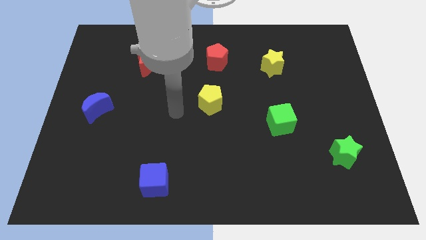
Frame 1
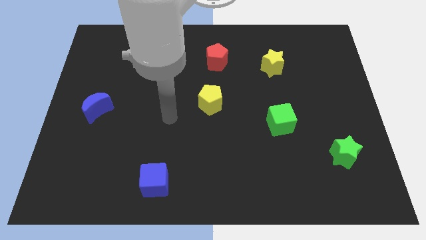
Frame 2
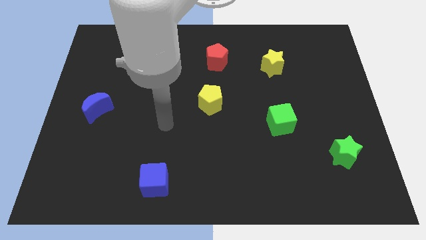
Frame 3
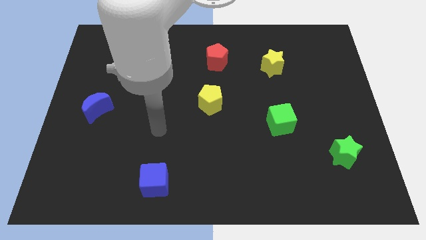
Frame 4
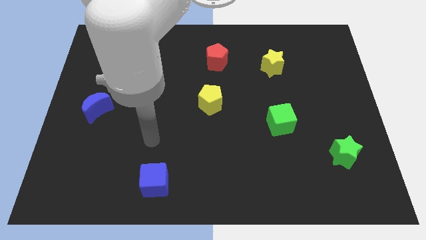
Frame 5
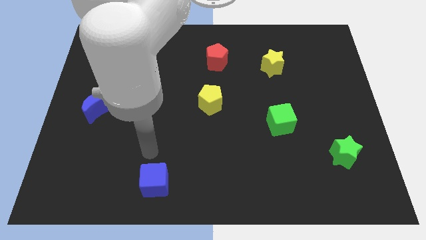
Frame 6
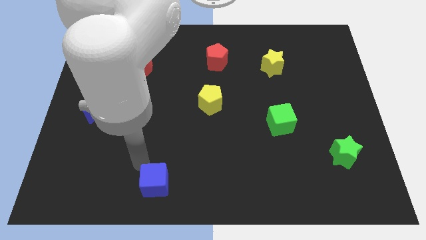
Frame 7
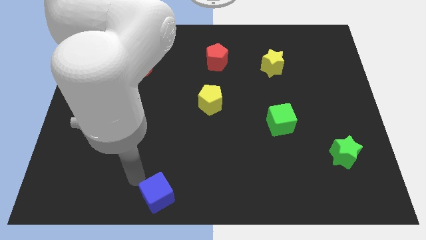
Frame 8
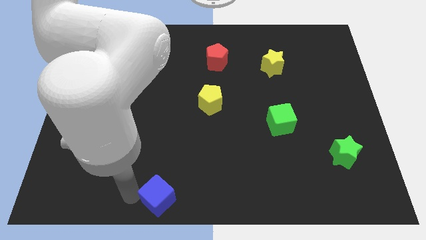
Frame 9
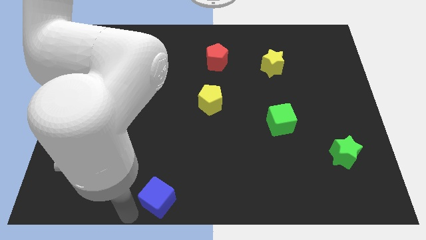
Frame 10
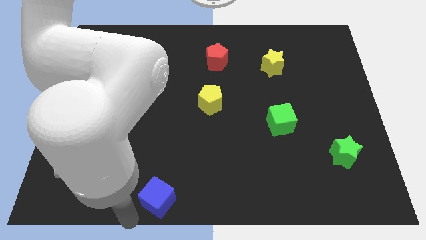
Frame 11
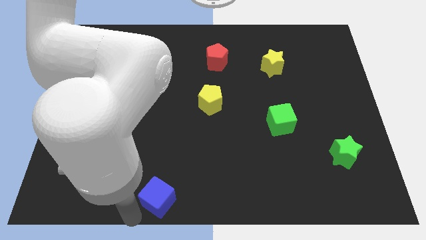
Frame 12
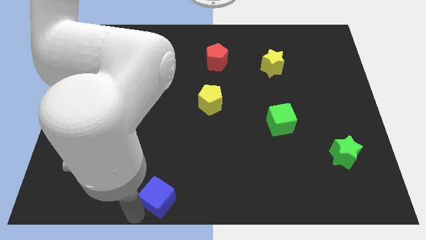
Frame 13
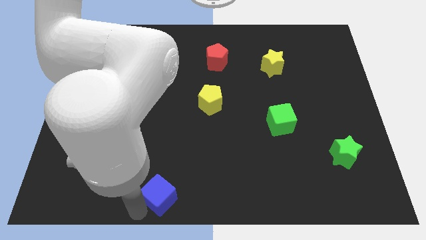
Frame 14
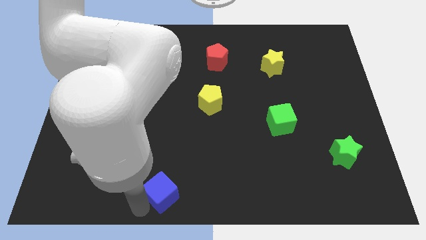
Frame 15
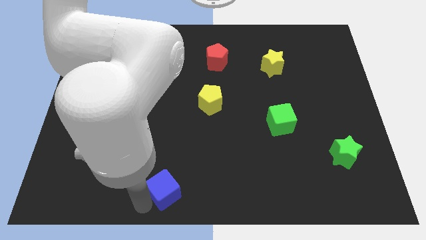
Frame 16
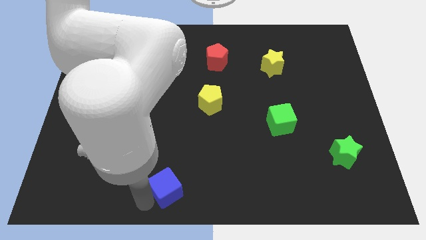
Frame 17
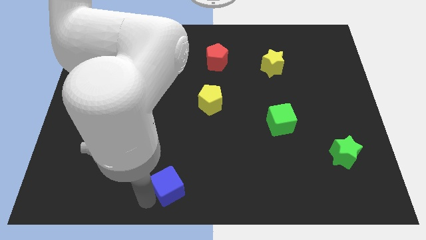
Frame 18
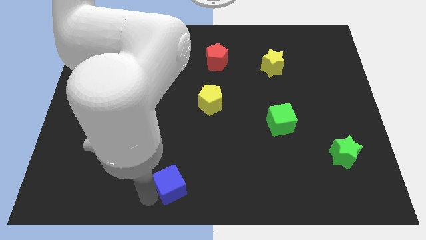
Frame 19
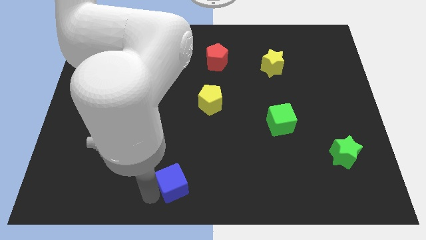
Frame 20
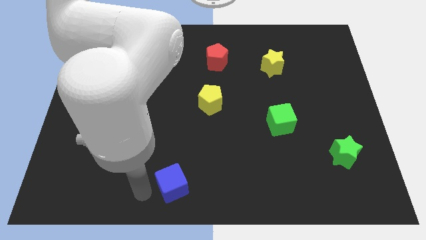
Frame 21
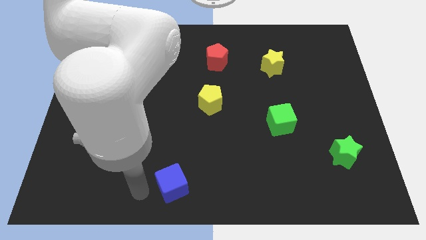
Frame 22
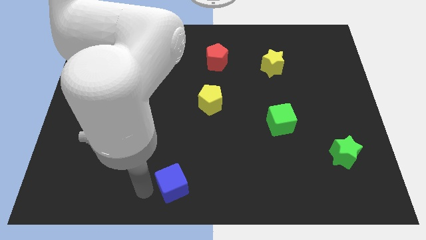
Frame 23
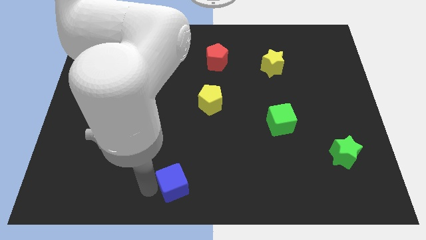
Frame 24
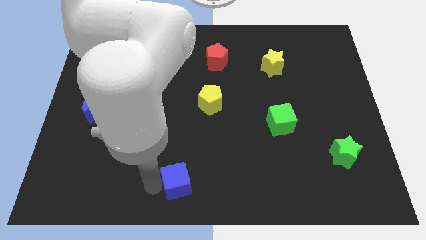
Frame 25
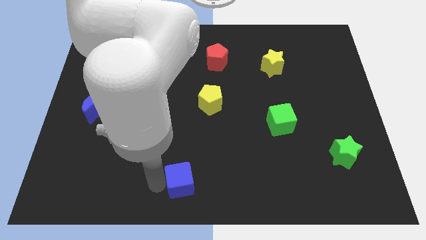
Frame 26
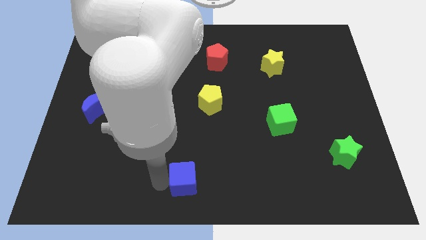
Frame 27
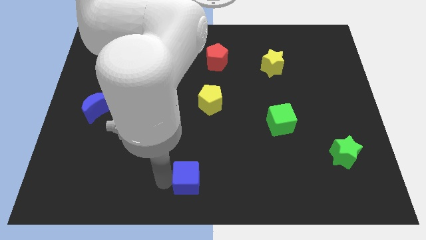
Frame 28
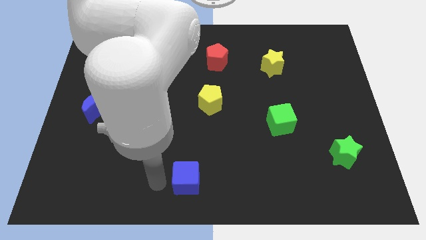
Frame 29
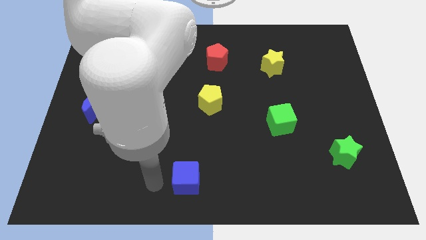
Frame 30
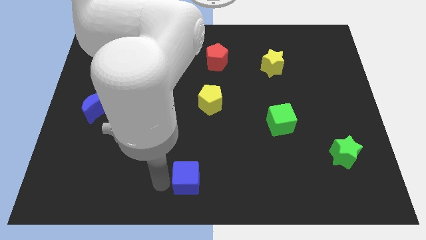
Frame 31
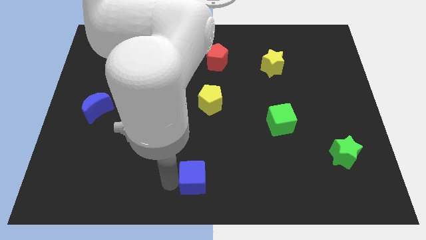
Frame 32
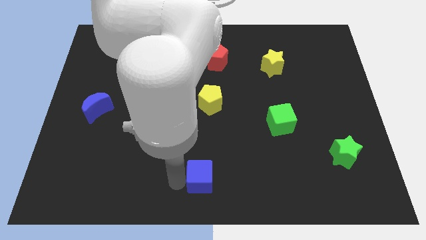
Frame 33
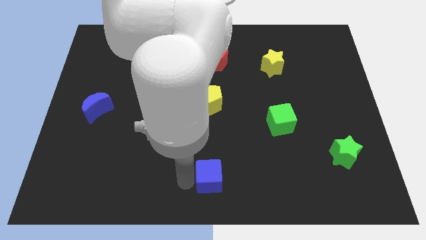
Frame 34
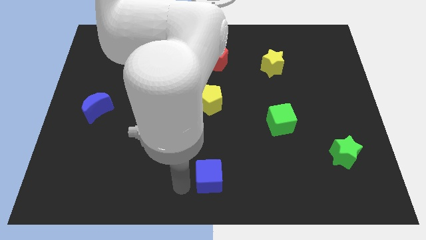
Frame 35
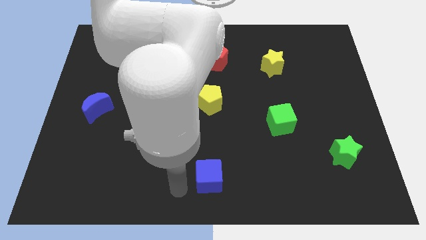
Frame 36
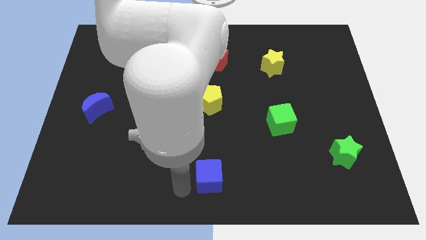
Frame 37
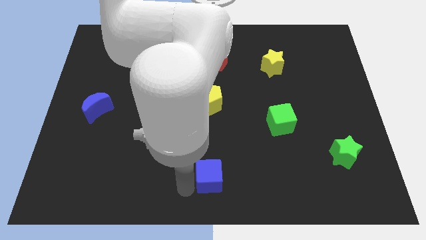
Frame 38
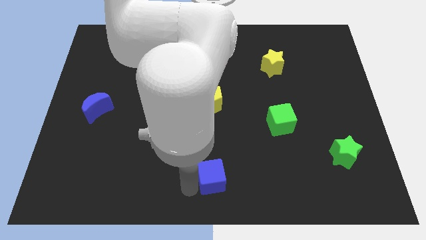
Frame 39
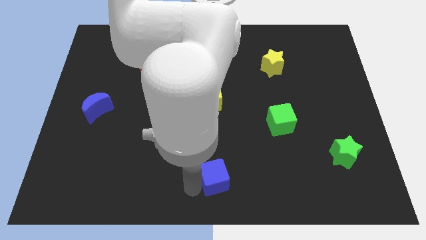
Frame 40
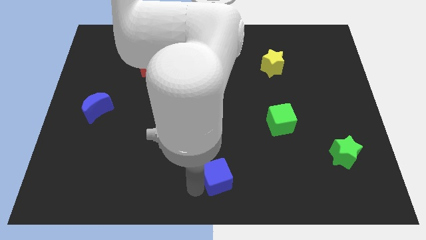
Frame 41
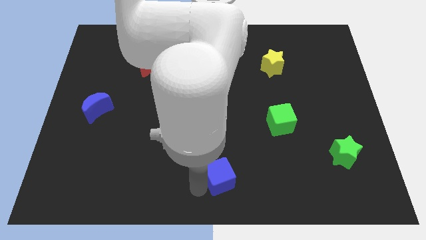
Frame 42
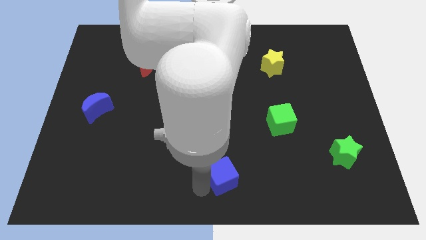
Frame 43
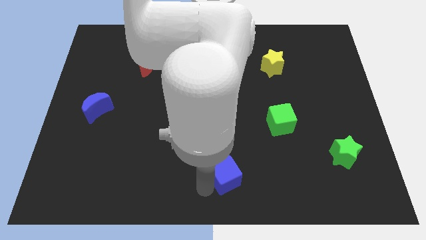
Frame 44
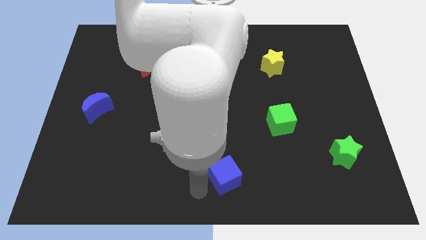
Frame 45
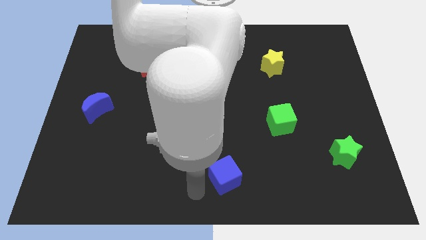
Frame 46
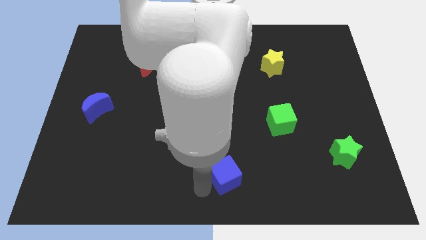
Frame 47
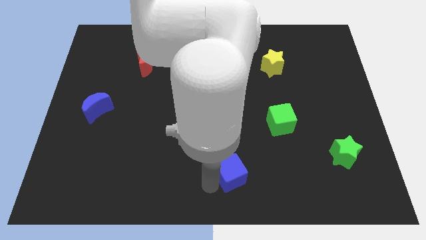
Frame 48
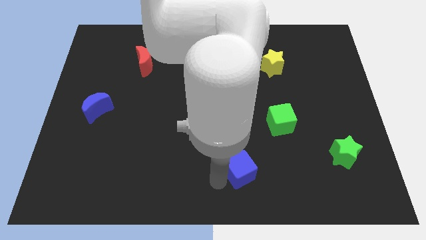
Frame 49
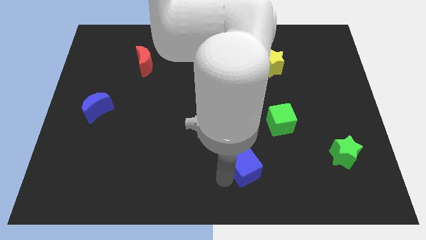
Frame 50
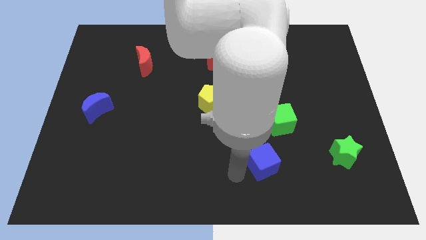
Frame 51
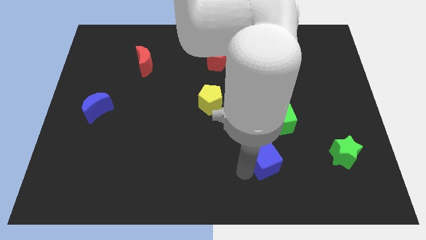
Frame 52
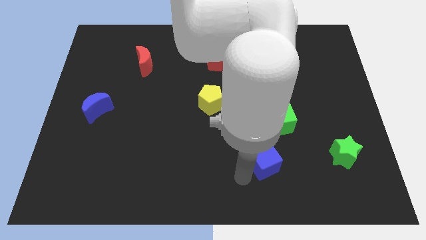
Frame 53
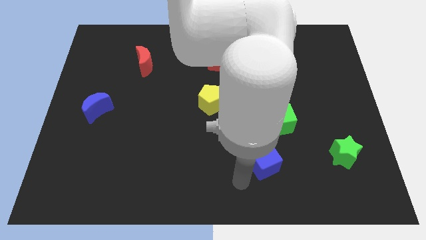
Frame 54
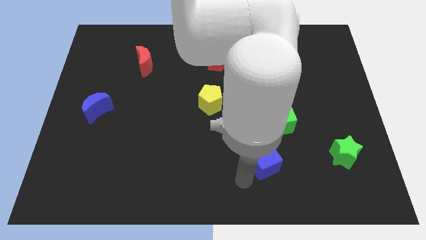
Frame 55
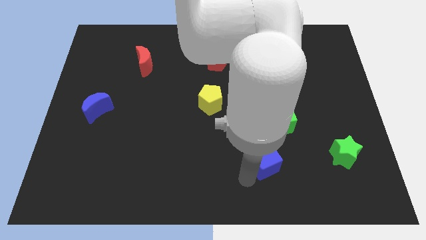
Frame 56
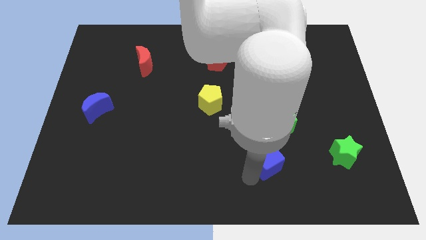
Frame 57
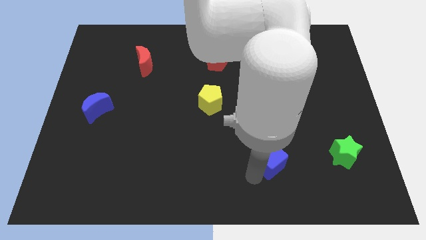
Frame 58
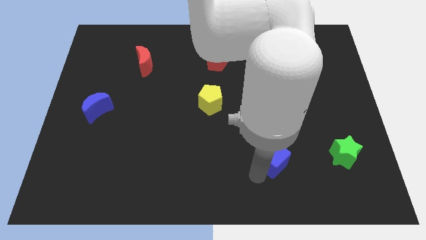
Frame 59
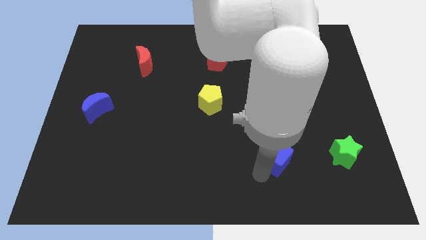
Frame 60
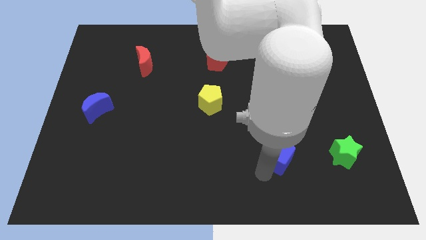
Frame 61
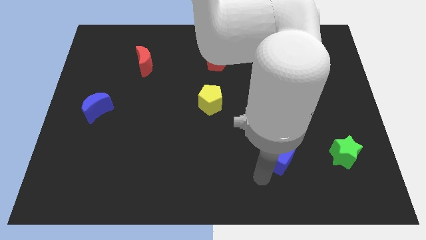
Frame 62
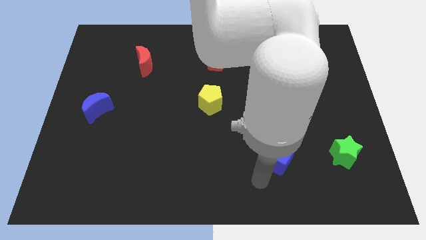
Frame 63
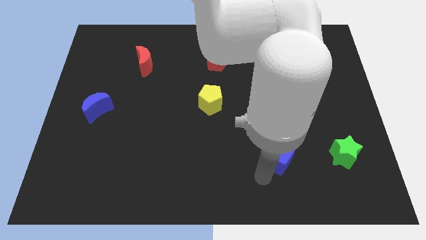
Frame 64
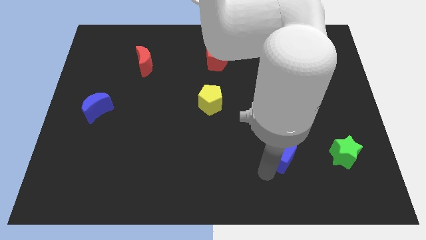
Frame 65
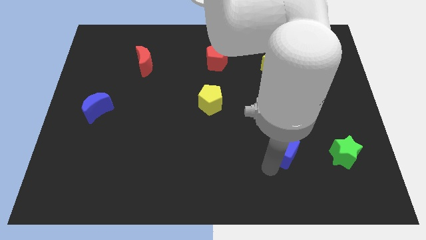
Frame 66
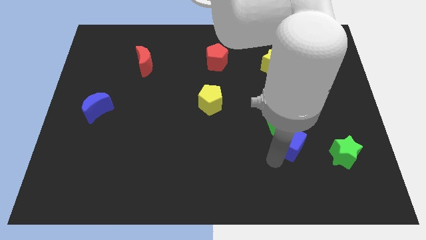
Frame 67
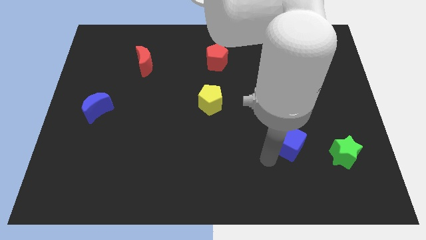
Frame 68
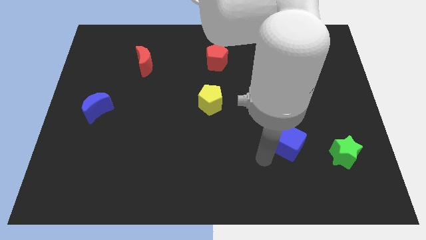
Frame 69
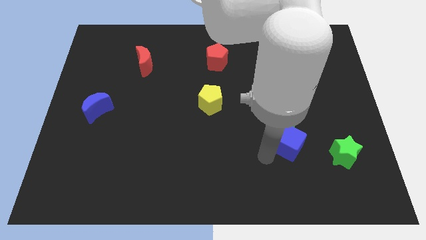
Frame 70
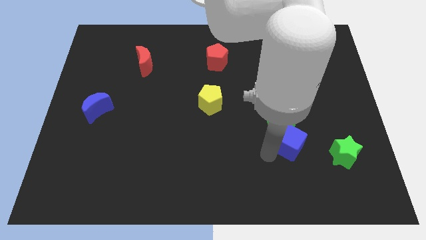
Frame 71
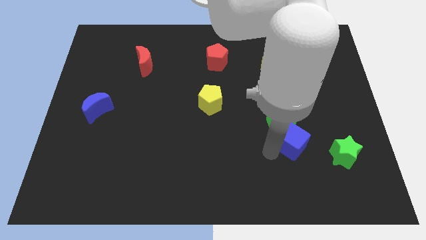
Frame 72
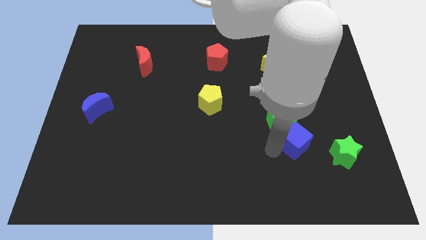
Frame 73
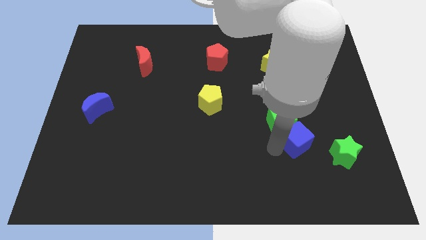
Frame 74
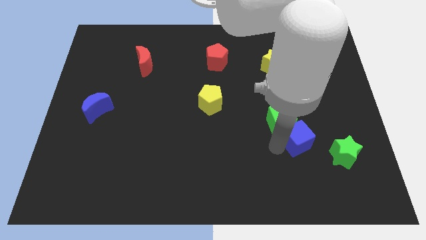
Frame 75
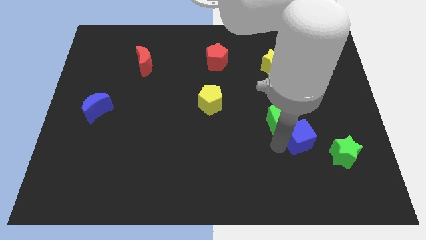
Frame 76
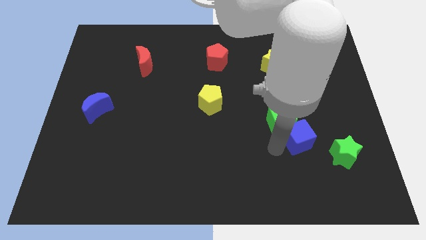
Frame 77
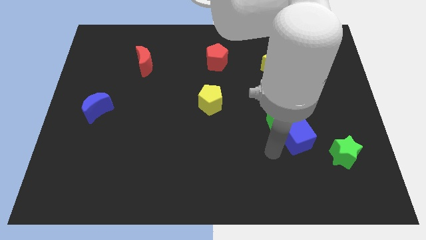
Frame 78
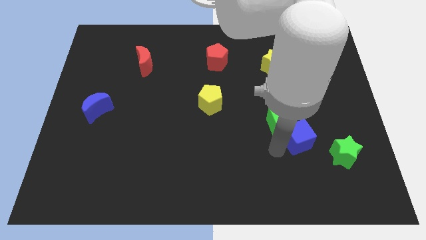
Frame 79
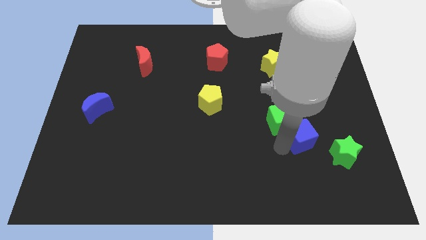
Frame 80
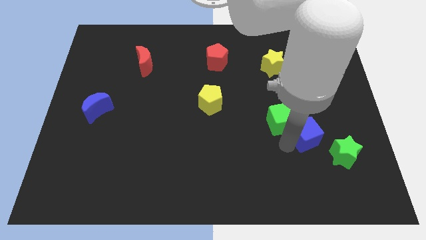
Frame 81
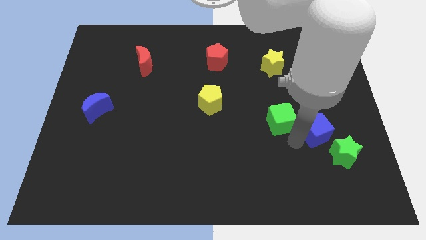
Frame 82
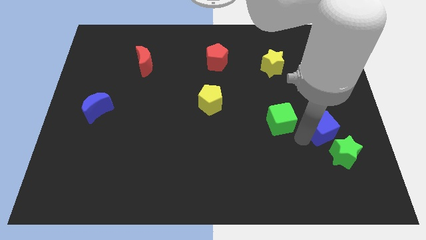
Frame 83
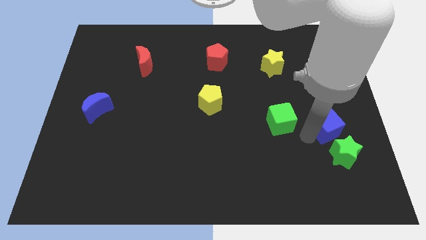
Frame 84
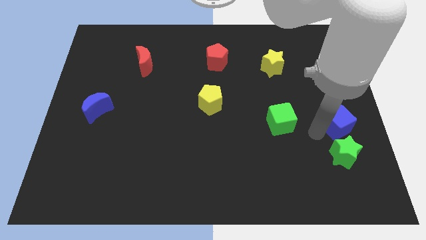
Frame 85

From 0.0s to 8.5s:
put the blue cube to the right side of the board
